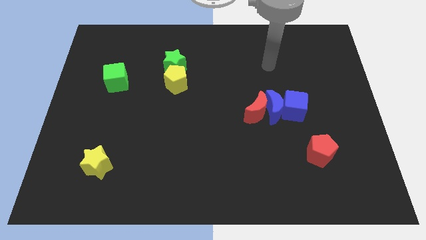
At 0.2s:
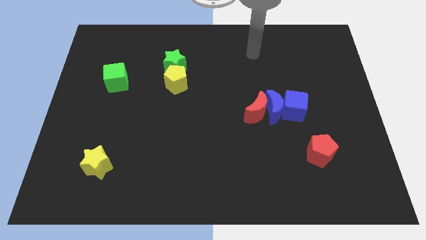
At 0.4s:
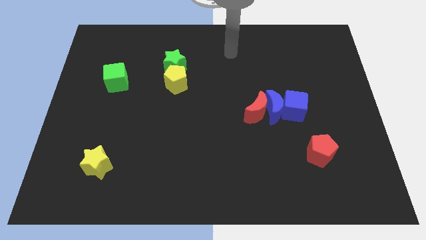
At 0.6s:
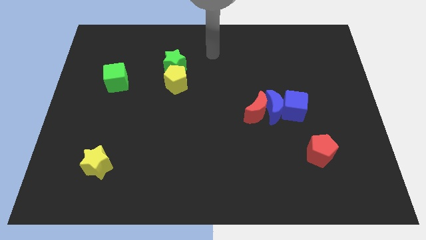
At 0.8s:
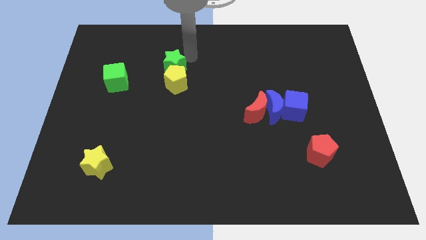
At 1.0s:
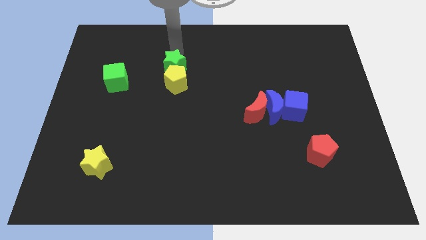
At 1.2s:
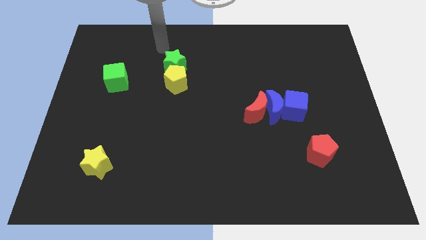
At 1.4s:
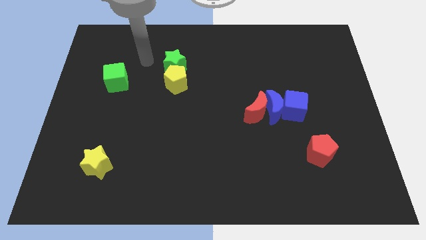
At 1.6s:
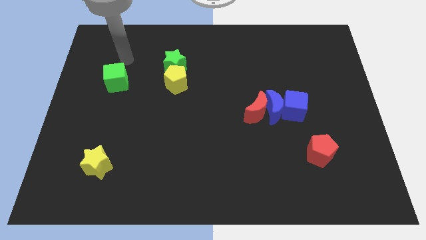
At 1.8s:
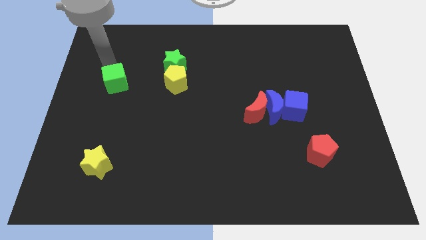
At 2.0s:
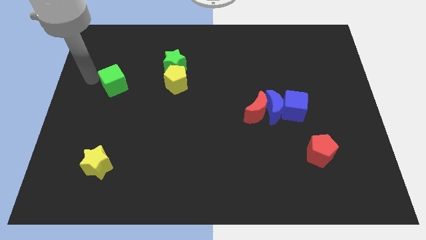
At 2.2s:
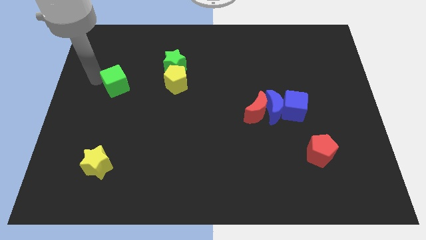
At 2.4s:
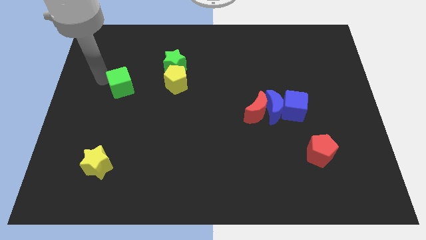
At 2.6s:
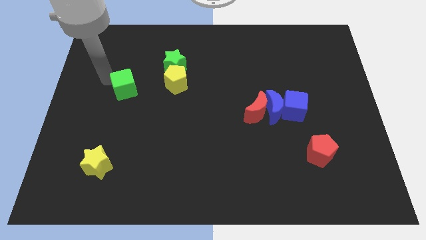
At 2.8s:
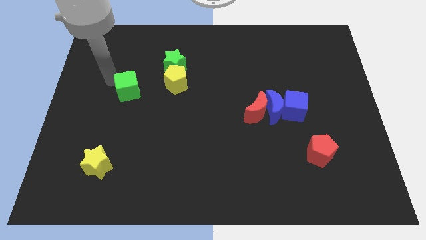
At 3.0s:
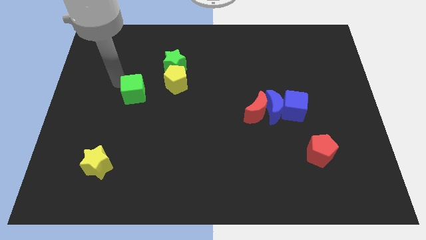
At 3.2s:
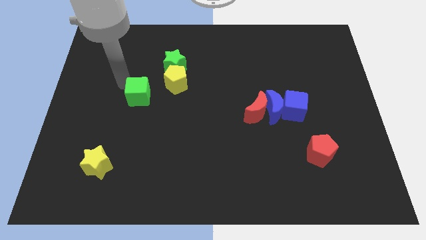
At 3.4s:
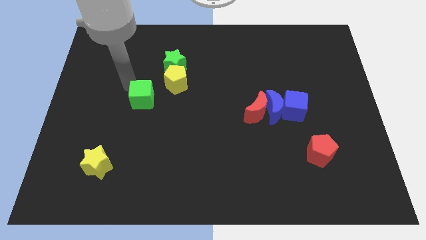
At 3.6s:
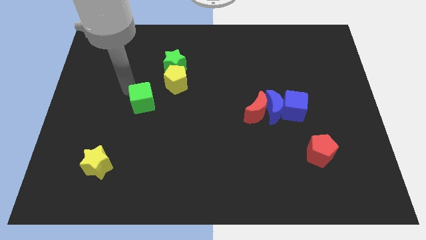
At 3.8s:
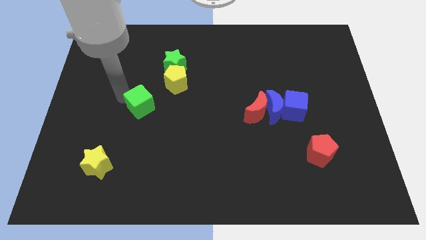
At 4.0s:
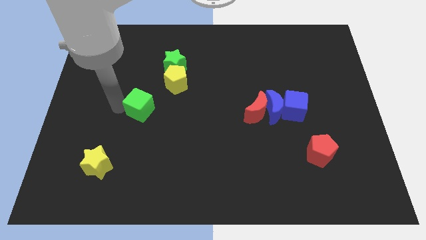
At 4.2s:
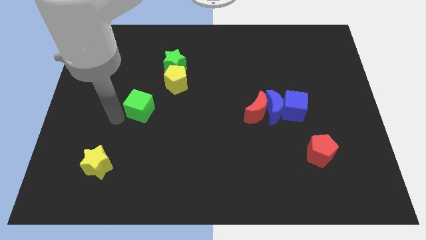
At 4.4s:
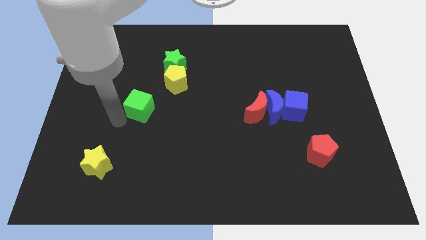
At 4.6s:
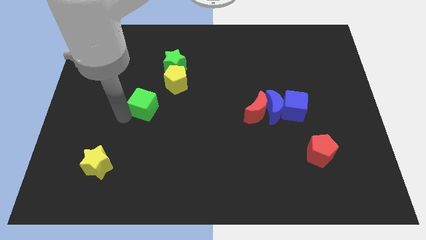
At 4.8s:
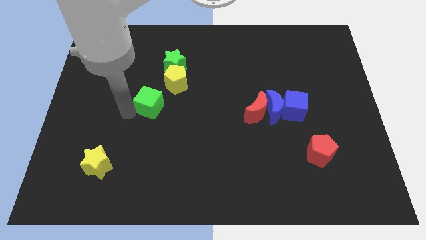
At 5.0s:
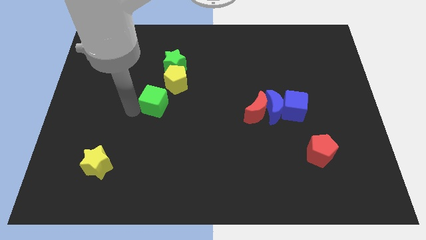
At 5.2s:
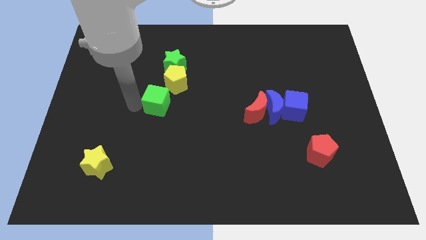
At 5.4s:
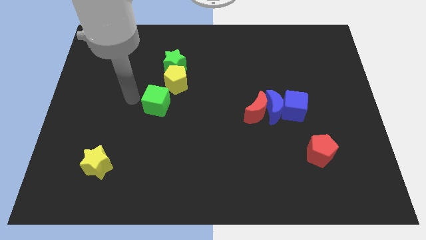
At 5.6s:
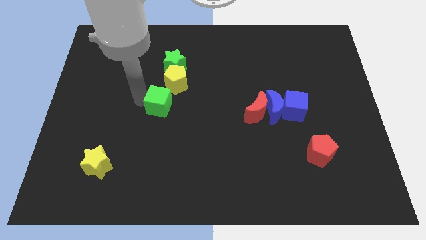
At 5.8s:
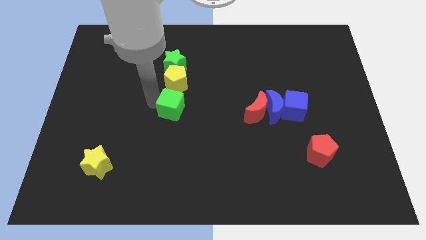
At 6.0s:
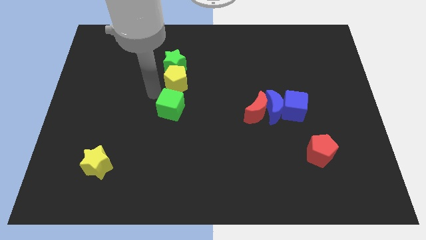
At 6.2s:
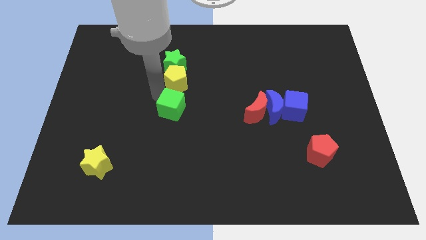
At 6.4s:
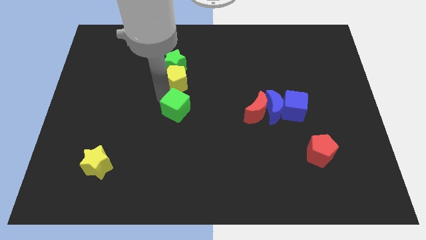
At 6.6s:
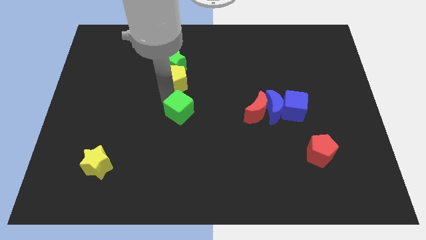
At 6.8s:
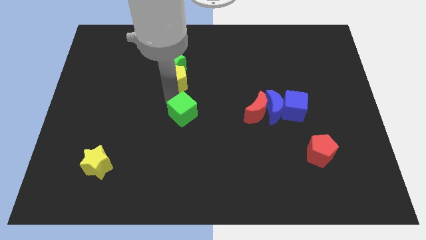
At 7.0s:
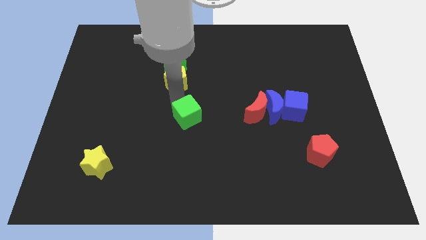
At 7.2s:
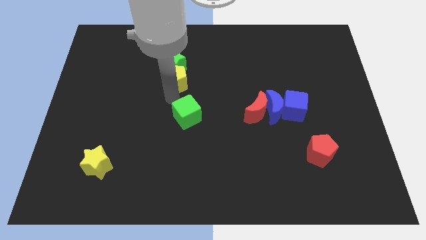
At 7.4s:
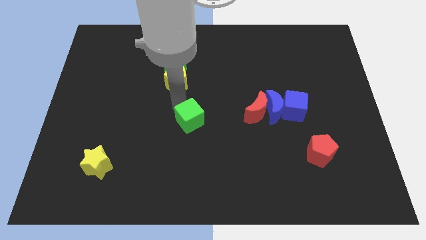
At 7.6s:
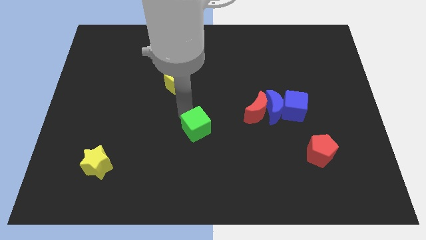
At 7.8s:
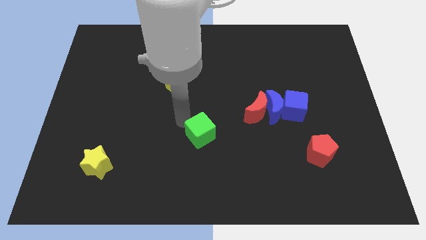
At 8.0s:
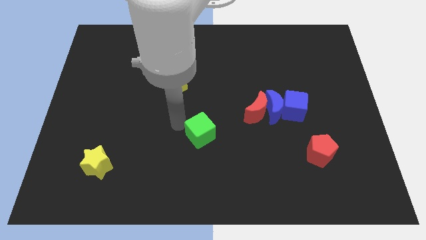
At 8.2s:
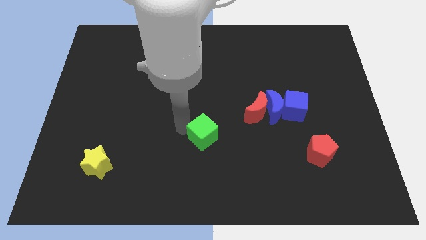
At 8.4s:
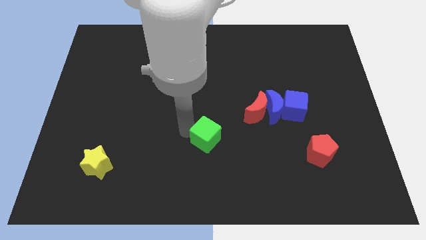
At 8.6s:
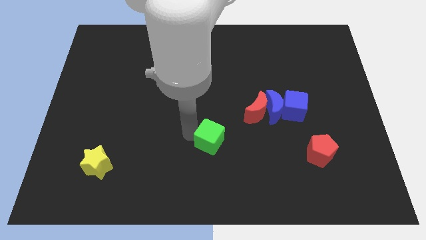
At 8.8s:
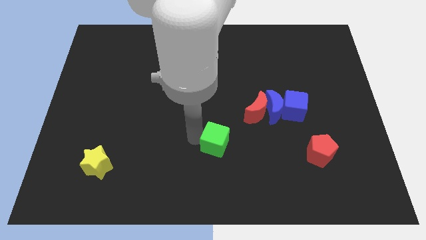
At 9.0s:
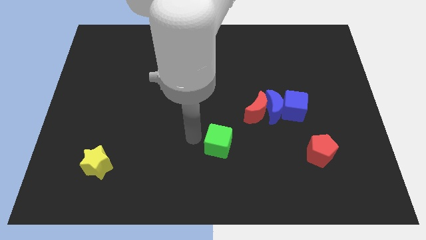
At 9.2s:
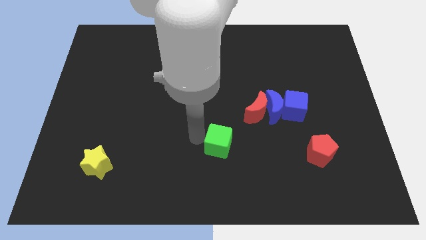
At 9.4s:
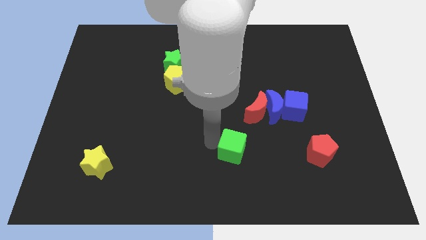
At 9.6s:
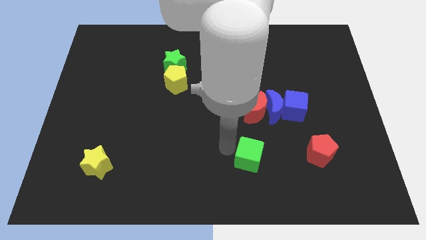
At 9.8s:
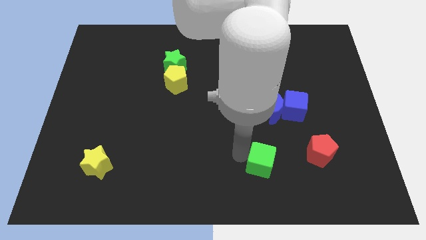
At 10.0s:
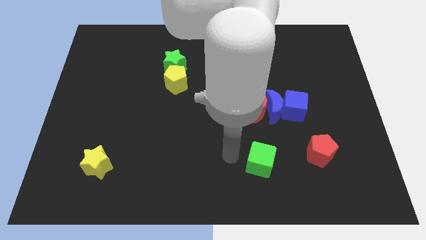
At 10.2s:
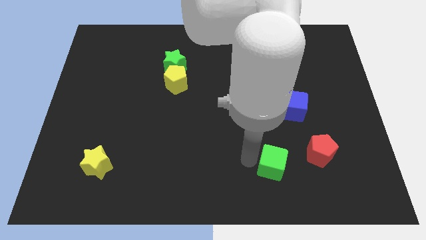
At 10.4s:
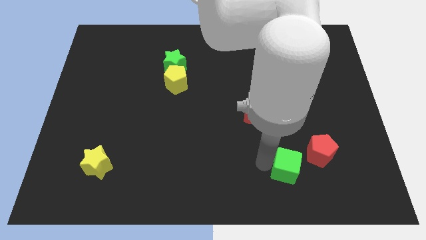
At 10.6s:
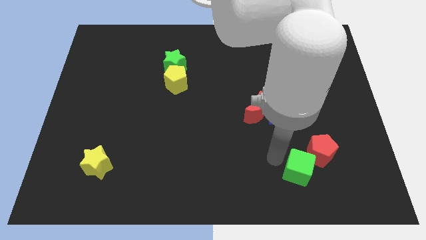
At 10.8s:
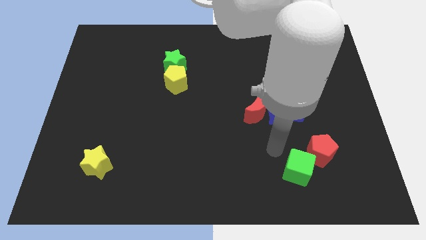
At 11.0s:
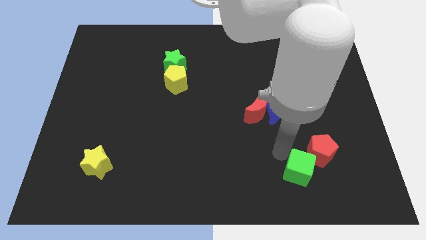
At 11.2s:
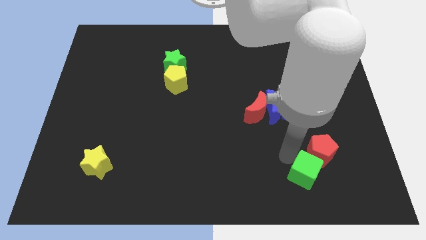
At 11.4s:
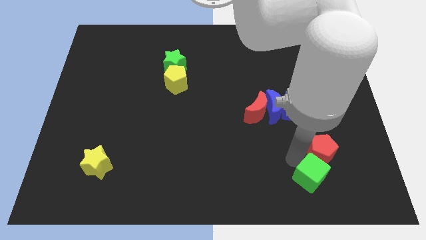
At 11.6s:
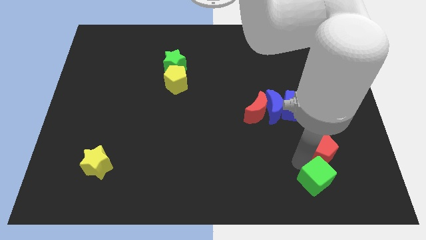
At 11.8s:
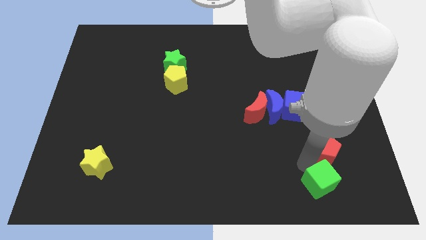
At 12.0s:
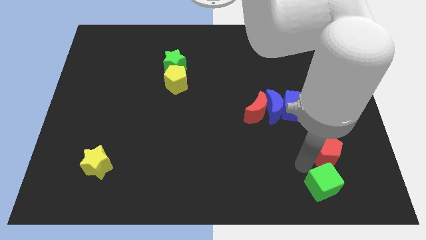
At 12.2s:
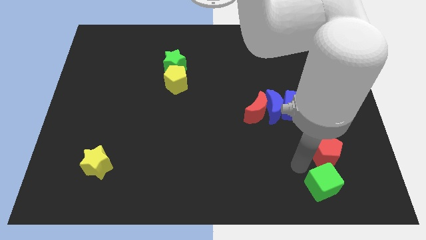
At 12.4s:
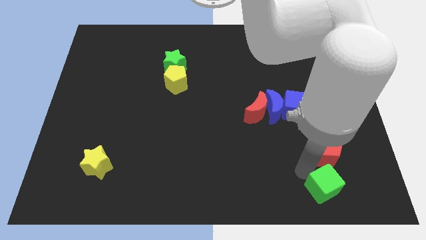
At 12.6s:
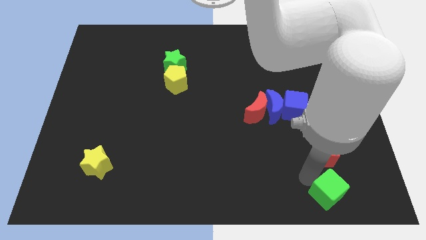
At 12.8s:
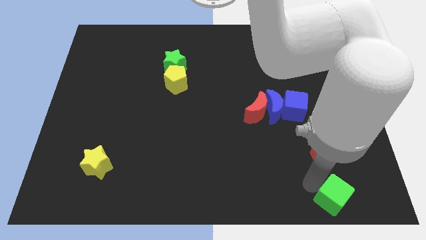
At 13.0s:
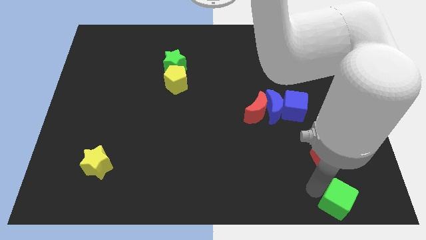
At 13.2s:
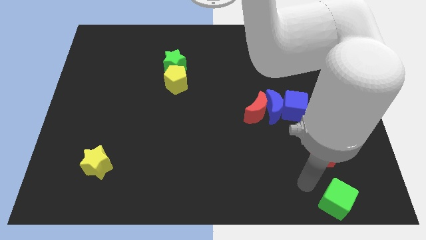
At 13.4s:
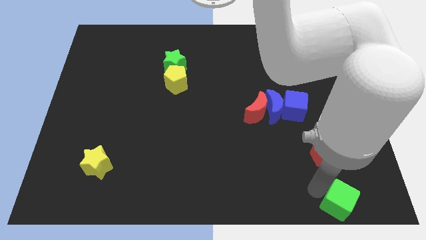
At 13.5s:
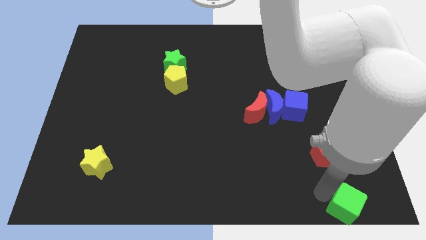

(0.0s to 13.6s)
put the green cube to the bottom right

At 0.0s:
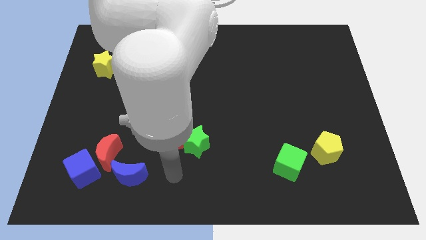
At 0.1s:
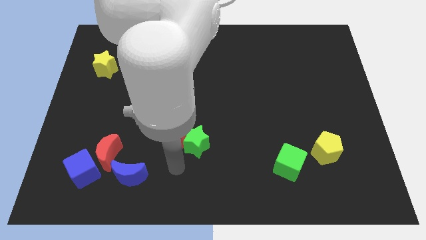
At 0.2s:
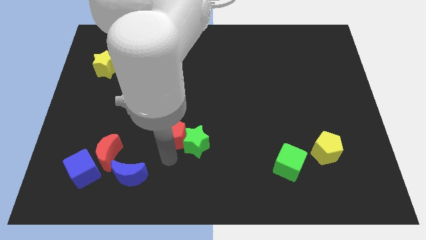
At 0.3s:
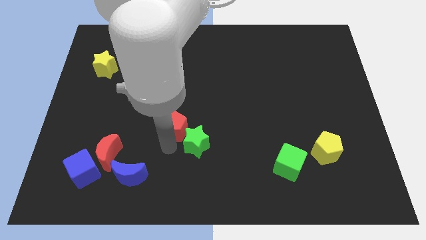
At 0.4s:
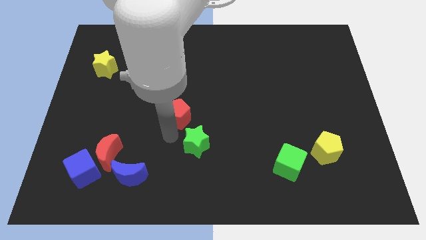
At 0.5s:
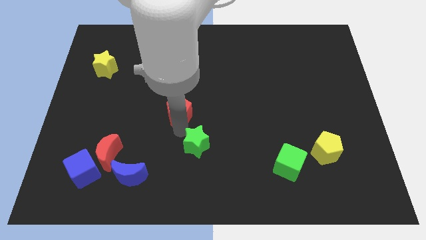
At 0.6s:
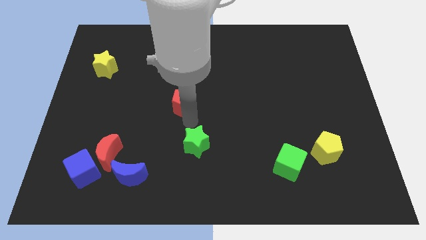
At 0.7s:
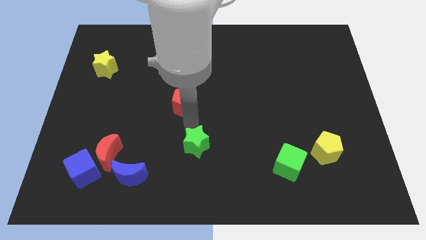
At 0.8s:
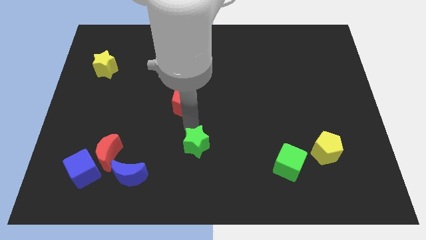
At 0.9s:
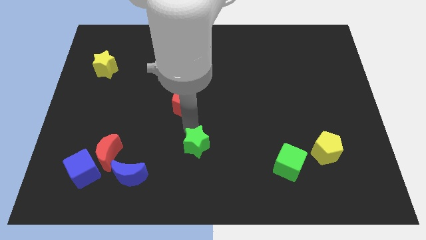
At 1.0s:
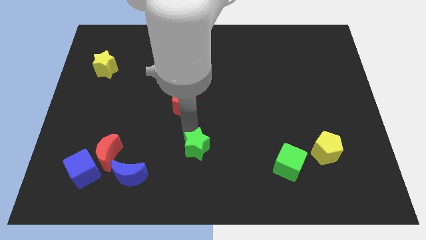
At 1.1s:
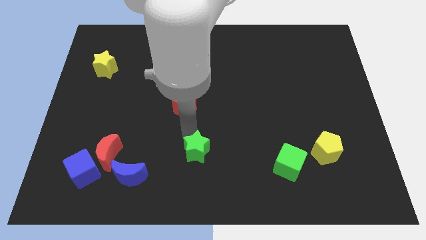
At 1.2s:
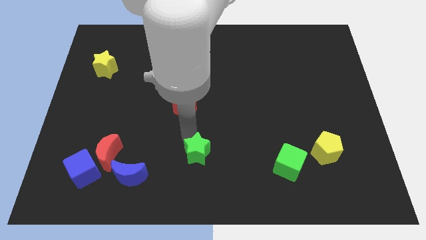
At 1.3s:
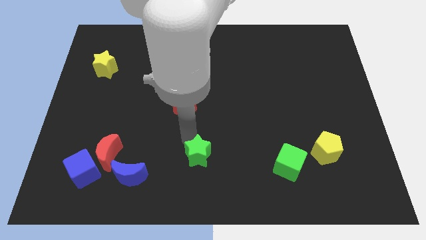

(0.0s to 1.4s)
put the green star to the bottom
